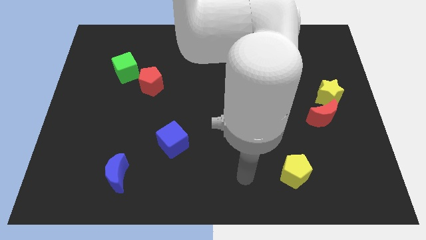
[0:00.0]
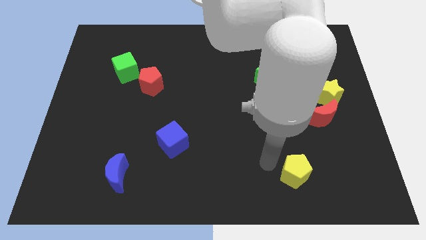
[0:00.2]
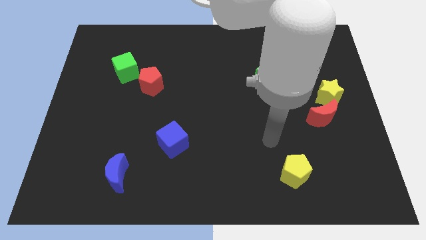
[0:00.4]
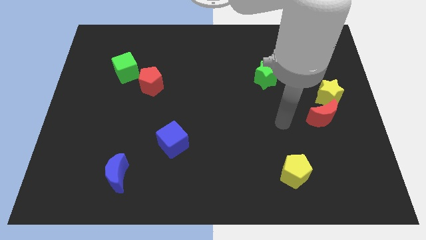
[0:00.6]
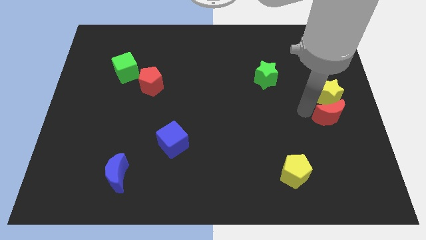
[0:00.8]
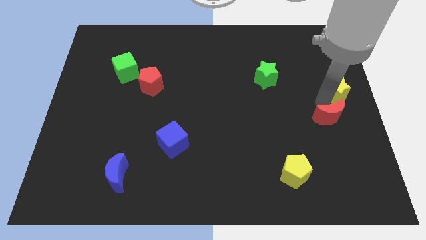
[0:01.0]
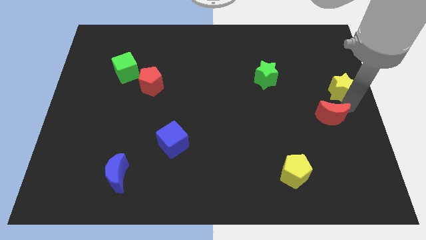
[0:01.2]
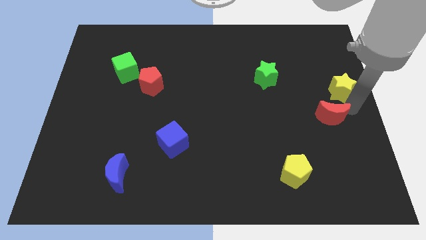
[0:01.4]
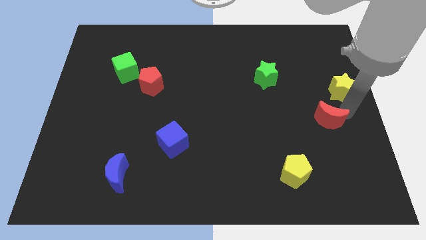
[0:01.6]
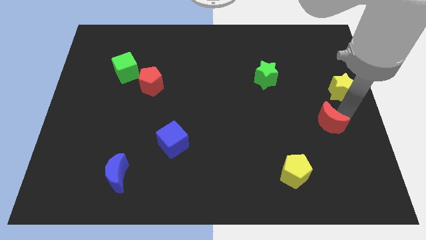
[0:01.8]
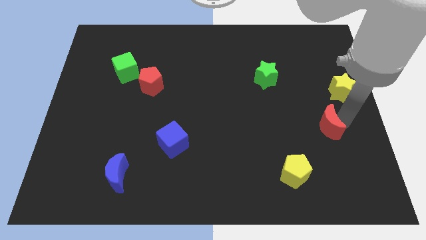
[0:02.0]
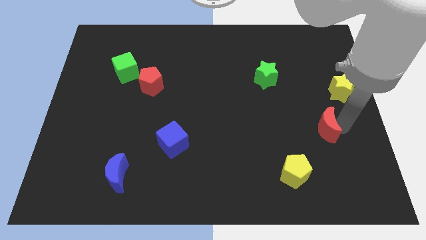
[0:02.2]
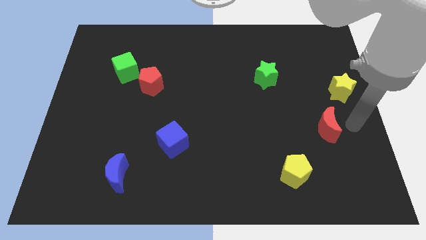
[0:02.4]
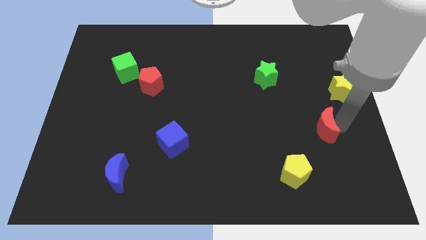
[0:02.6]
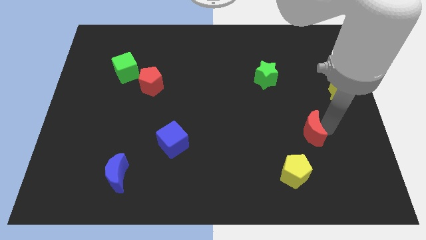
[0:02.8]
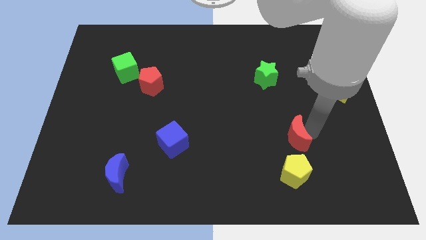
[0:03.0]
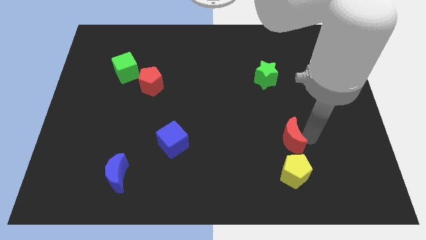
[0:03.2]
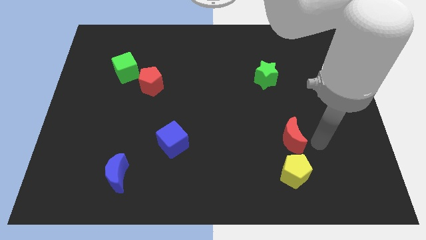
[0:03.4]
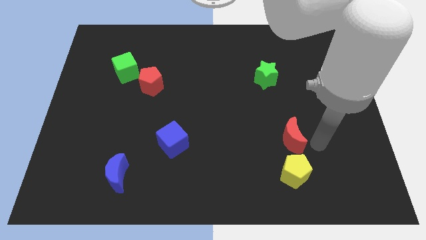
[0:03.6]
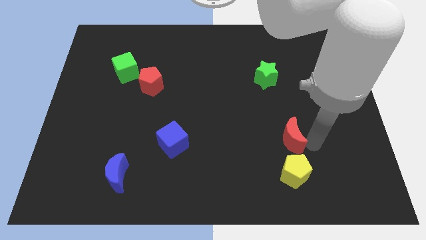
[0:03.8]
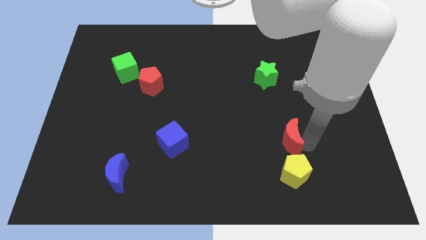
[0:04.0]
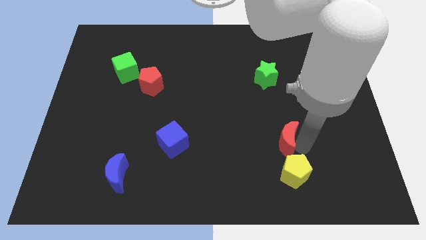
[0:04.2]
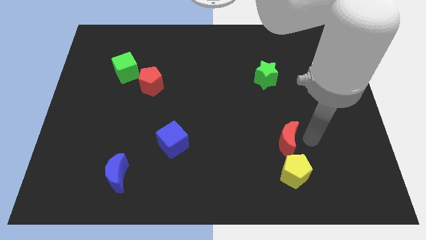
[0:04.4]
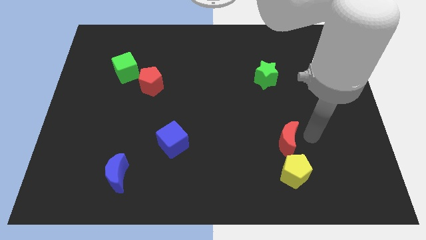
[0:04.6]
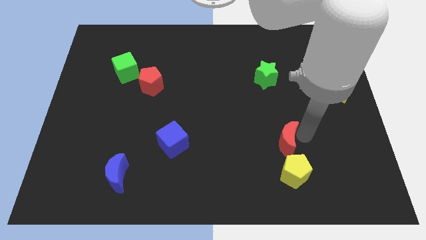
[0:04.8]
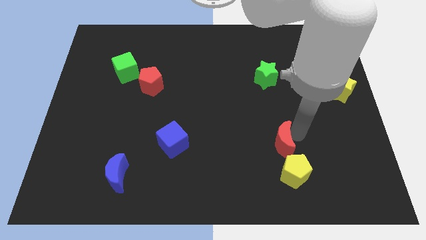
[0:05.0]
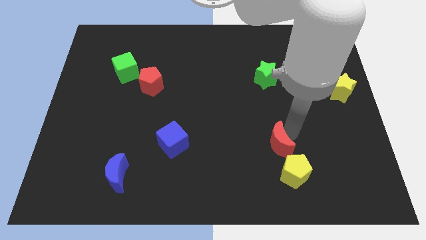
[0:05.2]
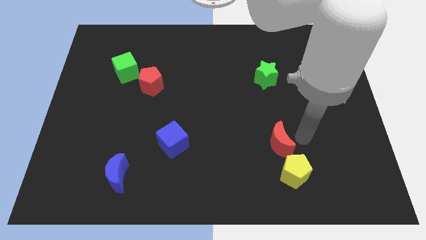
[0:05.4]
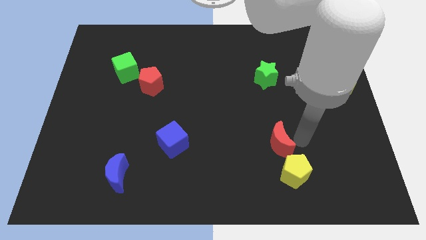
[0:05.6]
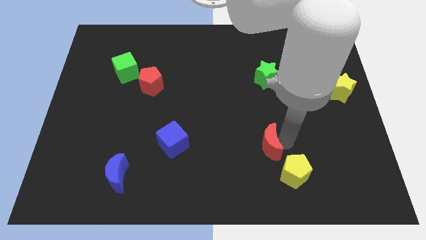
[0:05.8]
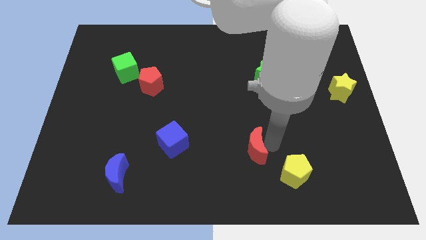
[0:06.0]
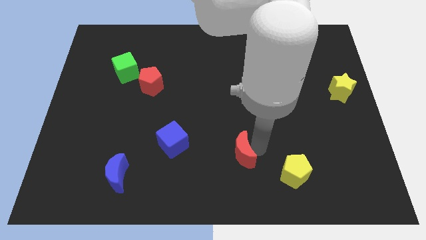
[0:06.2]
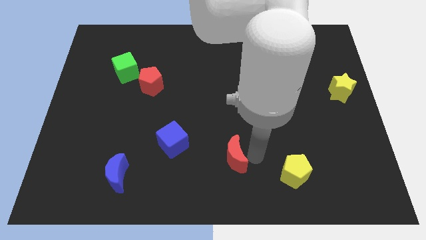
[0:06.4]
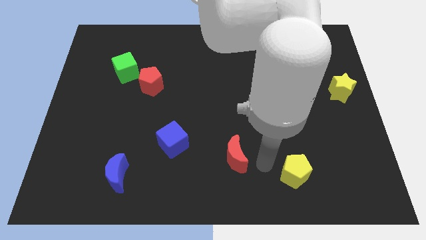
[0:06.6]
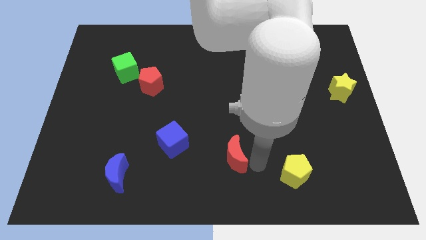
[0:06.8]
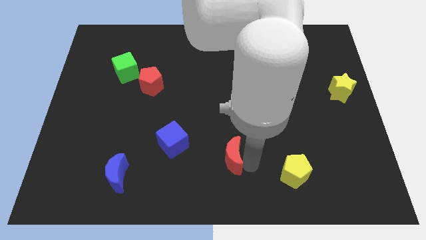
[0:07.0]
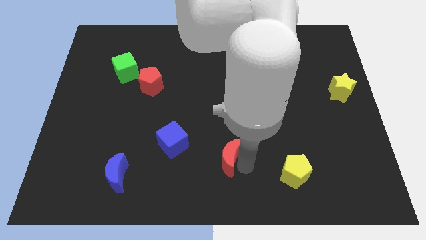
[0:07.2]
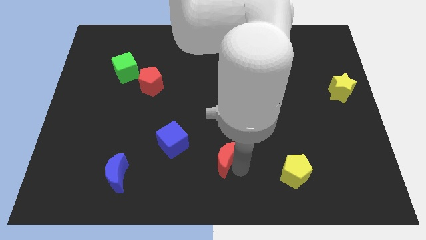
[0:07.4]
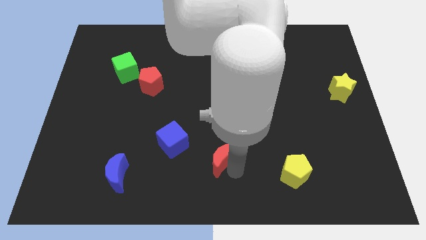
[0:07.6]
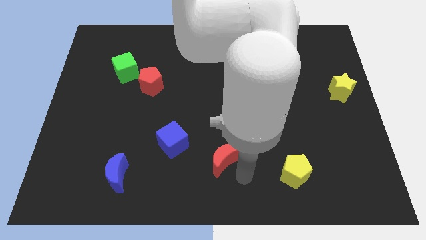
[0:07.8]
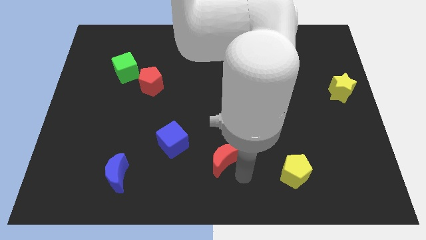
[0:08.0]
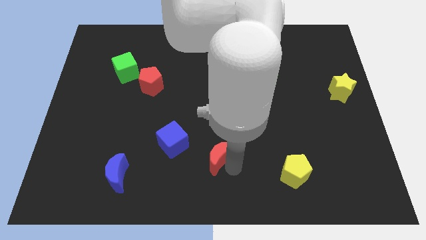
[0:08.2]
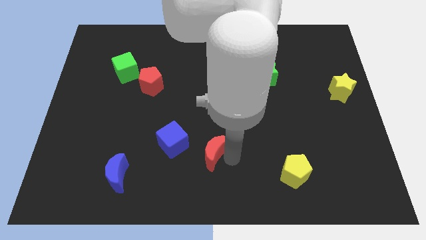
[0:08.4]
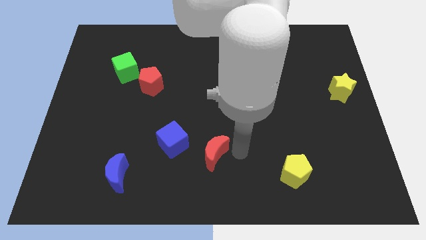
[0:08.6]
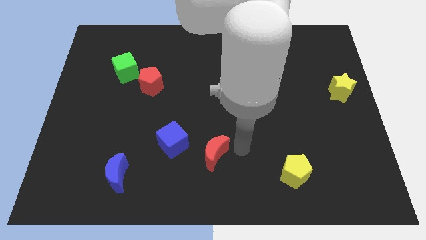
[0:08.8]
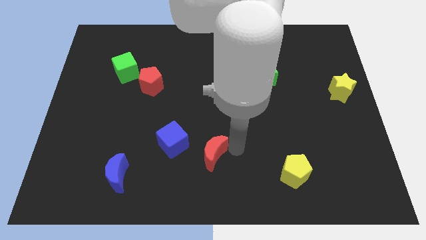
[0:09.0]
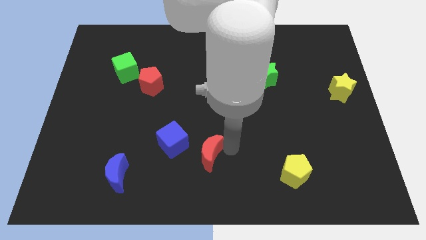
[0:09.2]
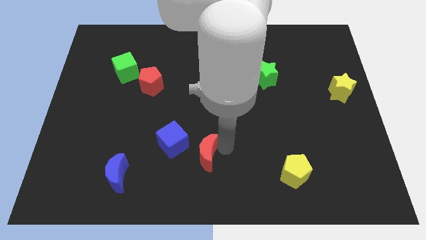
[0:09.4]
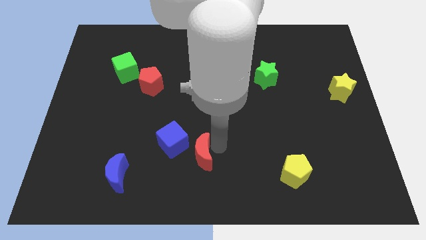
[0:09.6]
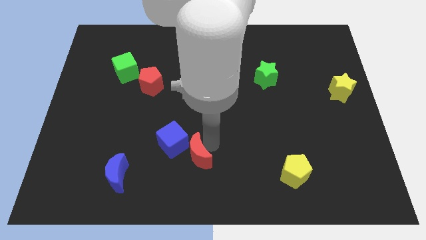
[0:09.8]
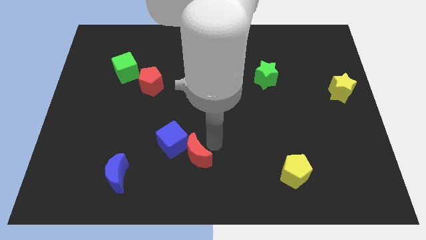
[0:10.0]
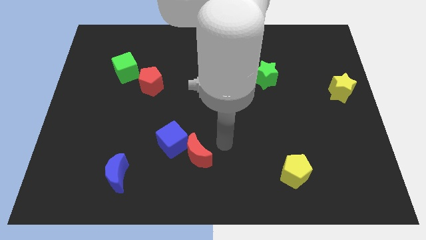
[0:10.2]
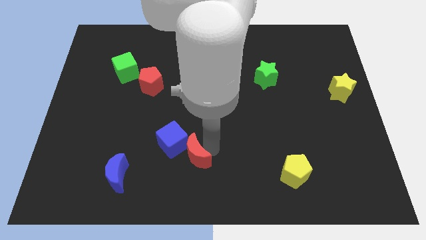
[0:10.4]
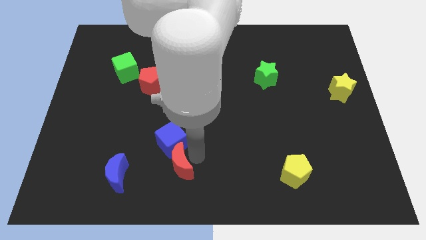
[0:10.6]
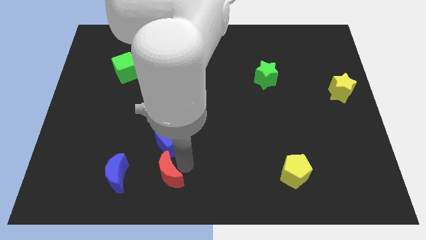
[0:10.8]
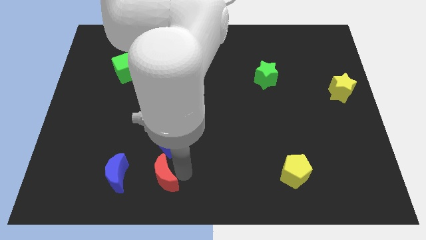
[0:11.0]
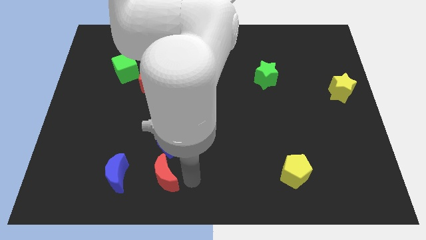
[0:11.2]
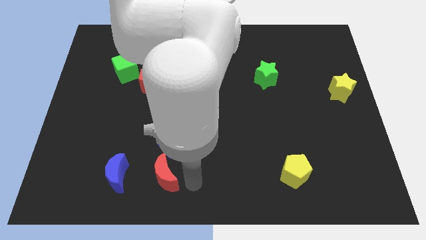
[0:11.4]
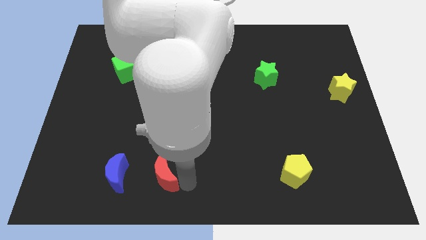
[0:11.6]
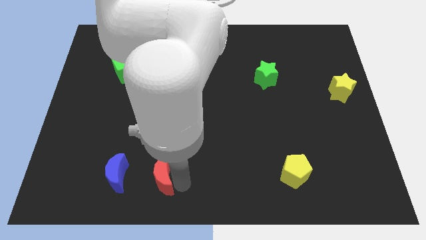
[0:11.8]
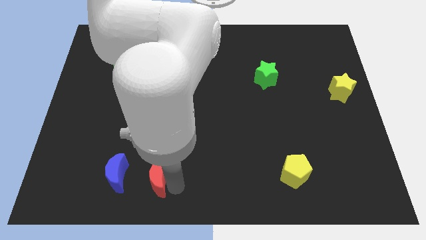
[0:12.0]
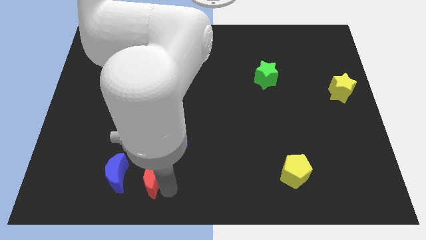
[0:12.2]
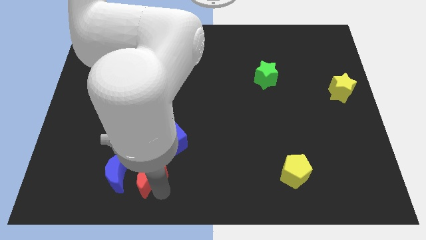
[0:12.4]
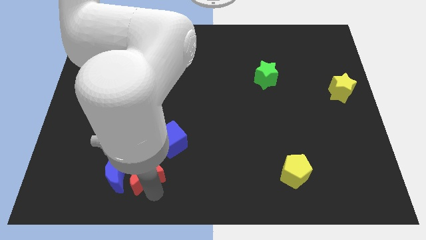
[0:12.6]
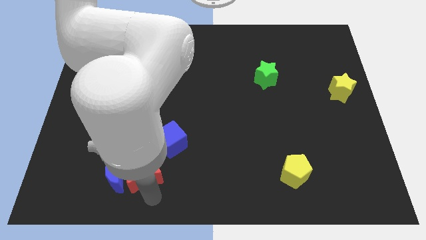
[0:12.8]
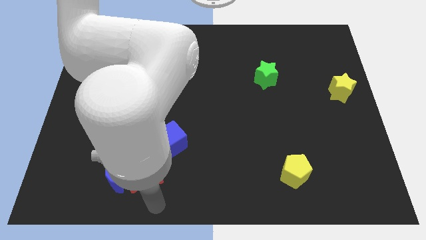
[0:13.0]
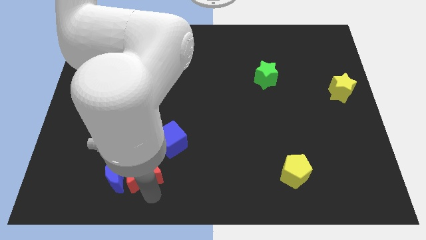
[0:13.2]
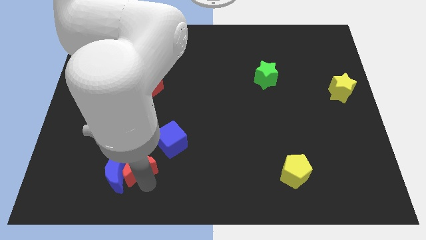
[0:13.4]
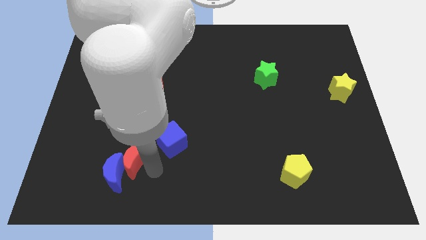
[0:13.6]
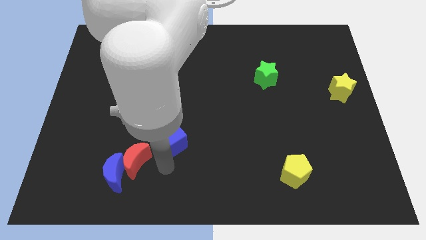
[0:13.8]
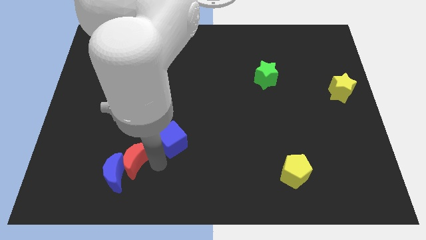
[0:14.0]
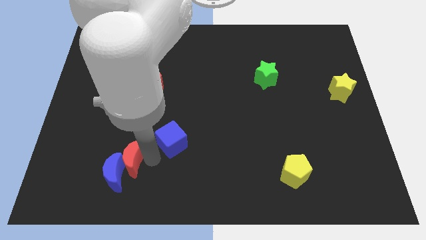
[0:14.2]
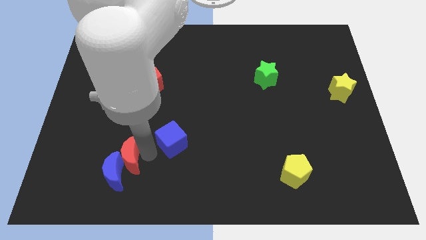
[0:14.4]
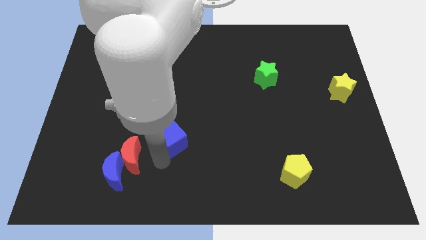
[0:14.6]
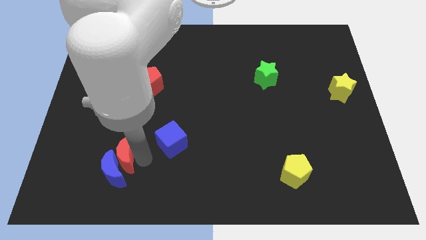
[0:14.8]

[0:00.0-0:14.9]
move the red moon to the top left side of the blue moon
